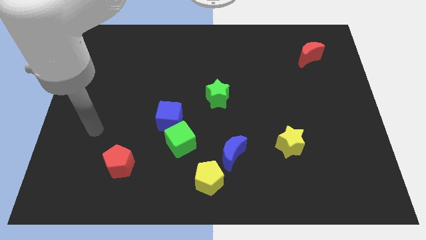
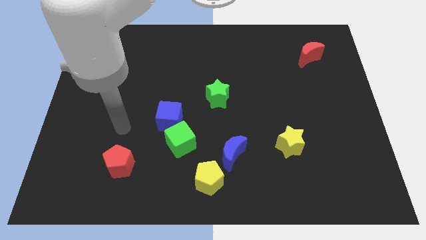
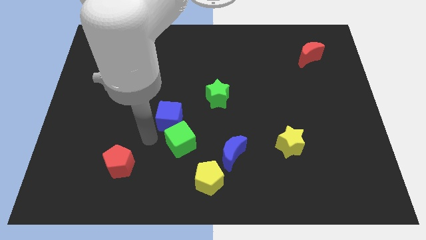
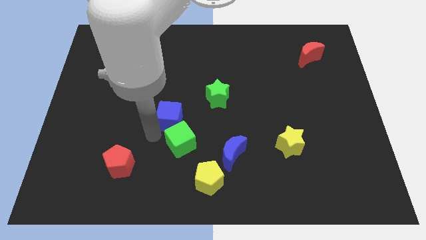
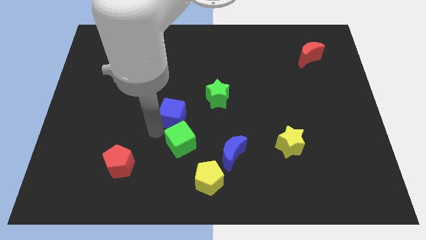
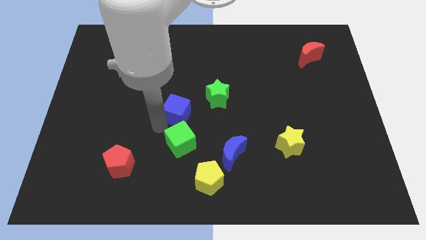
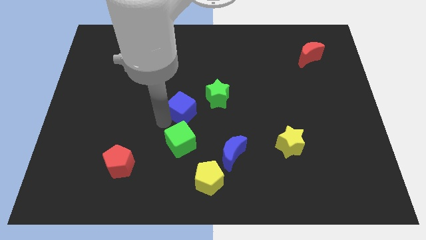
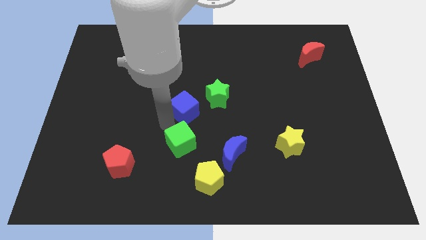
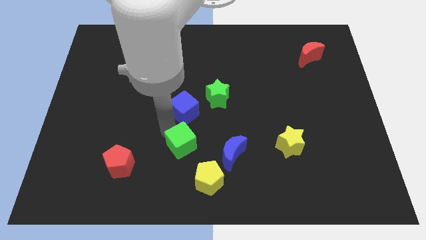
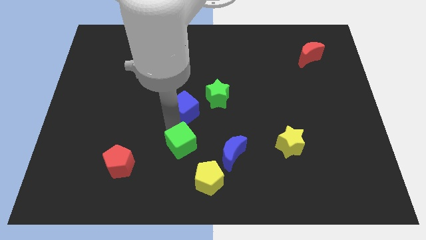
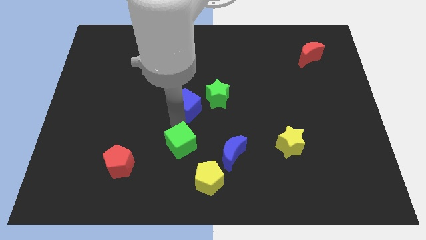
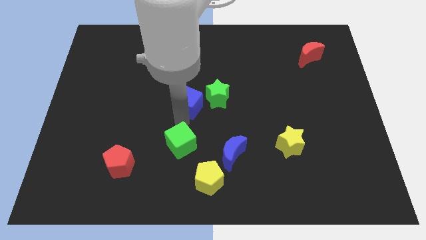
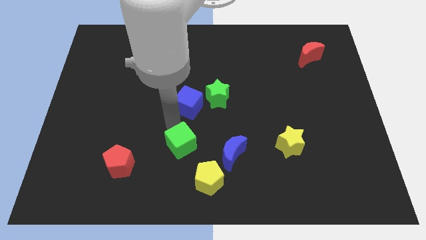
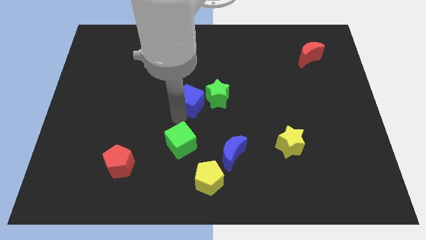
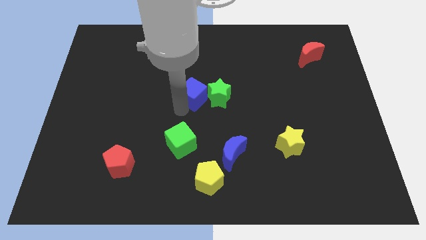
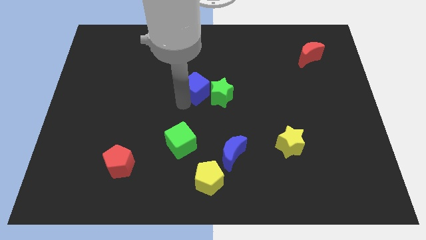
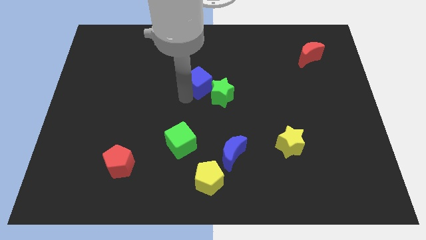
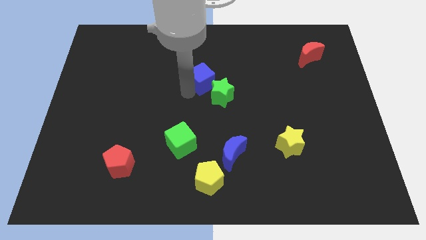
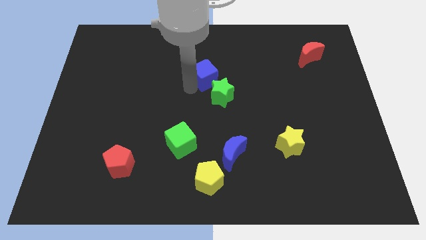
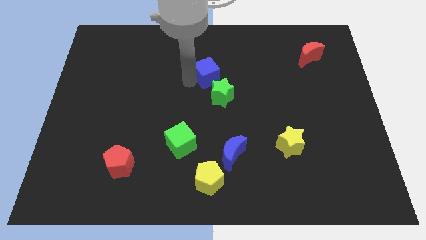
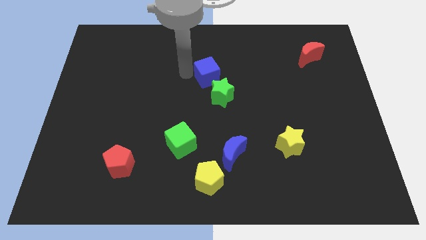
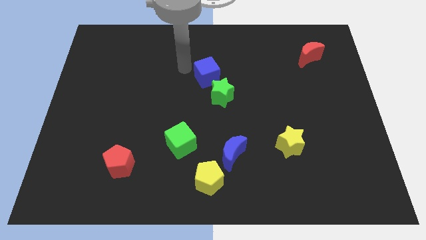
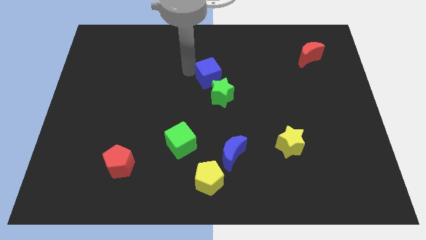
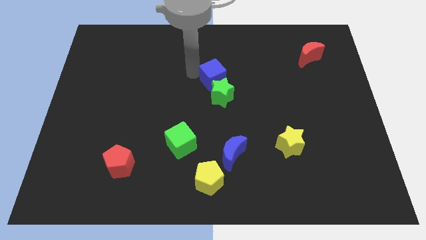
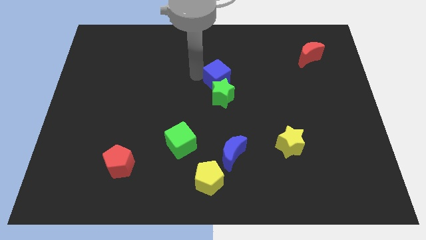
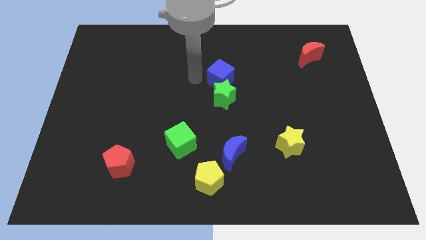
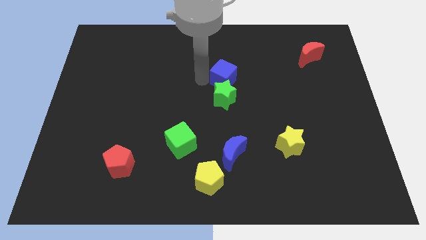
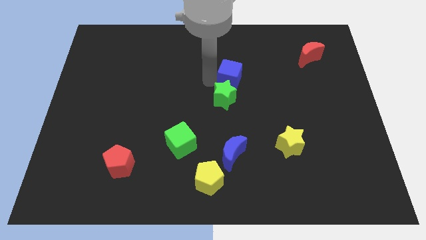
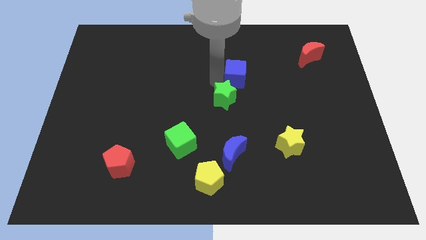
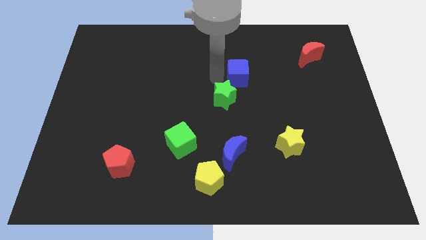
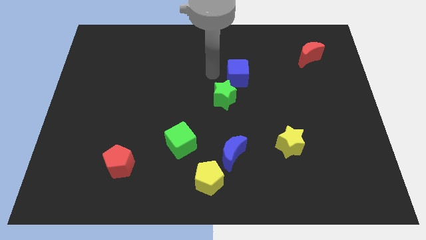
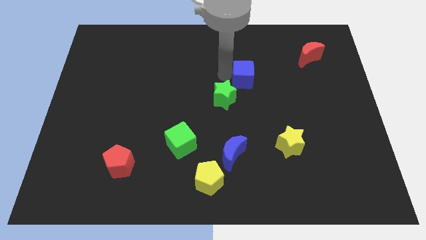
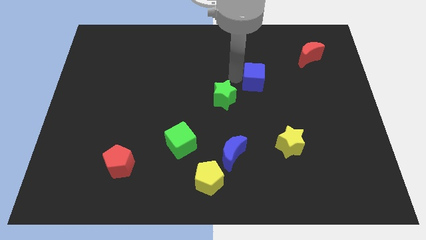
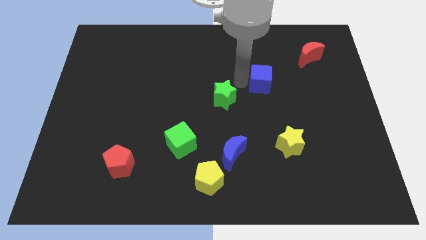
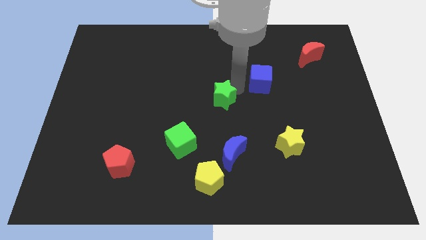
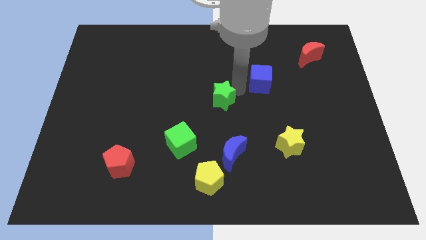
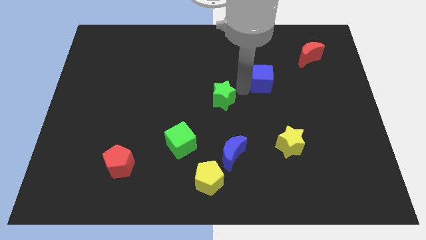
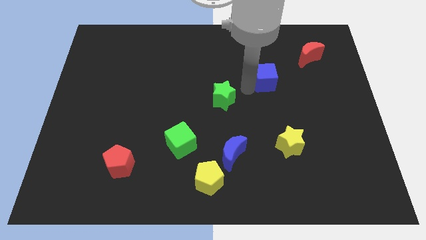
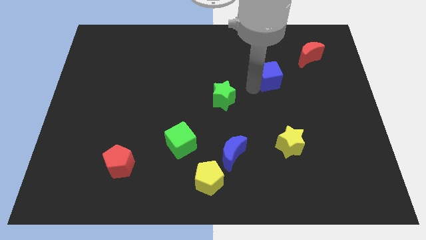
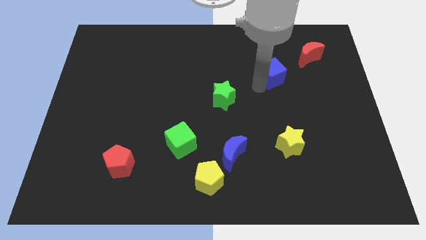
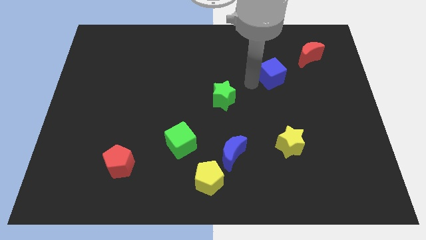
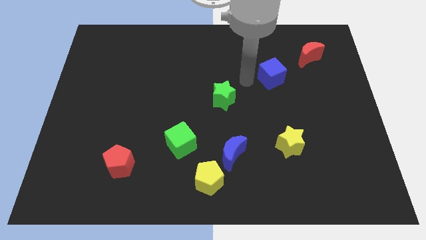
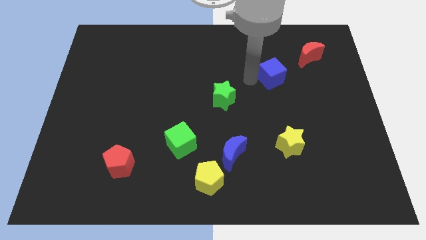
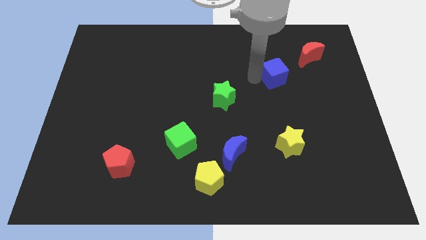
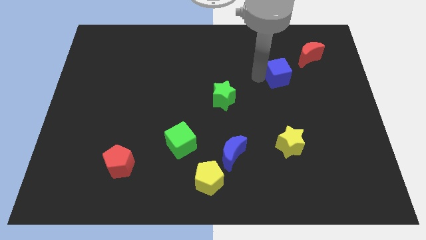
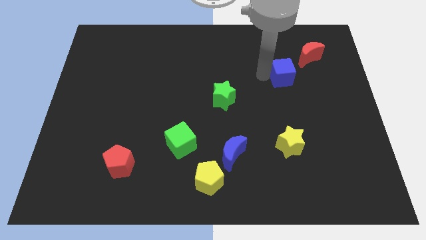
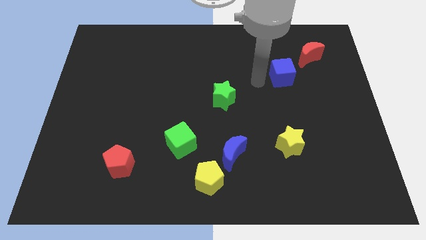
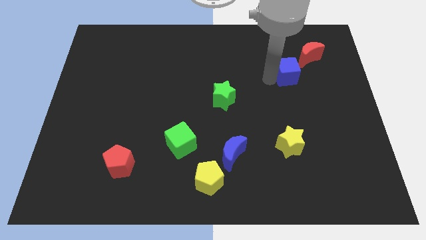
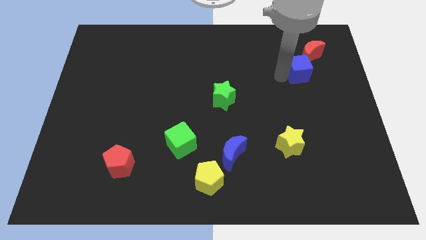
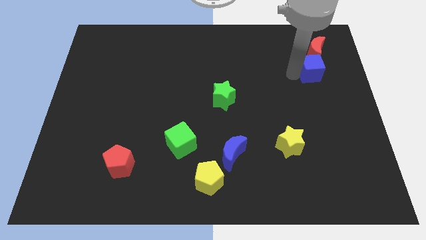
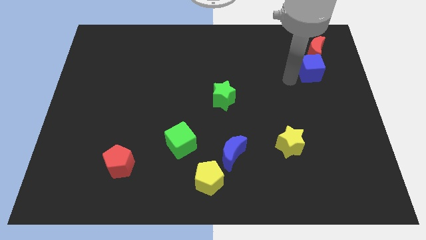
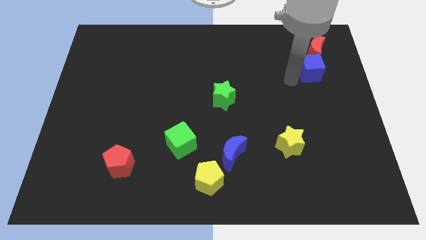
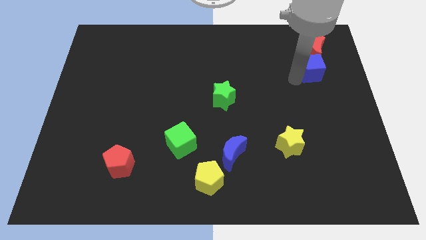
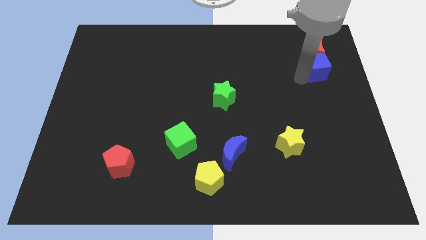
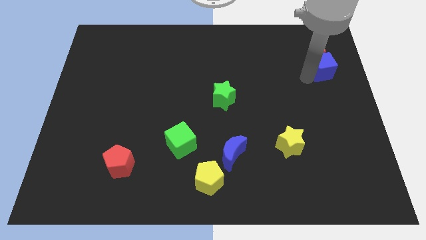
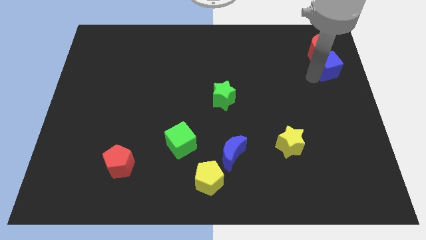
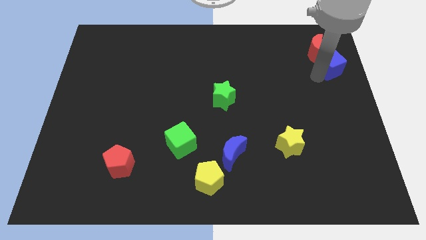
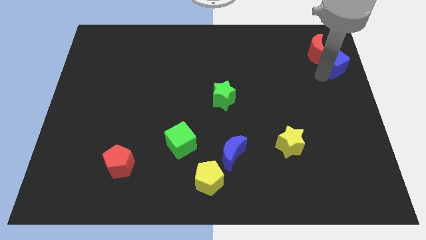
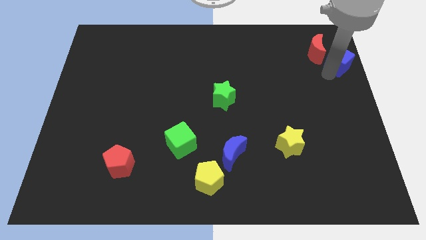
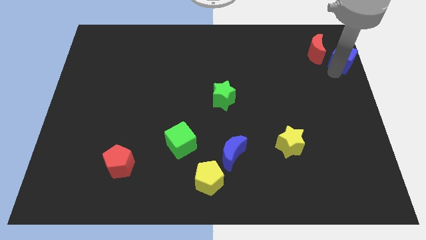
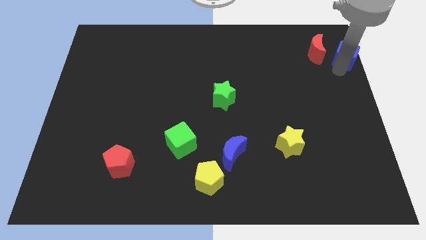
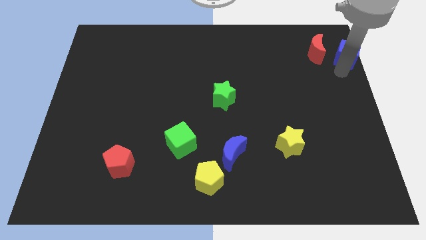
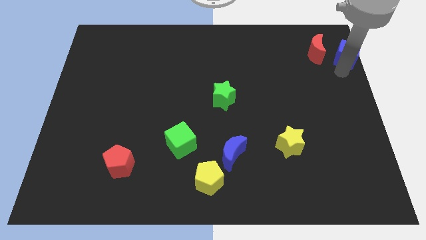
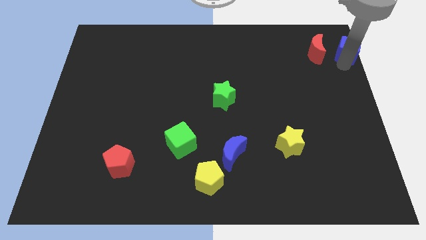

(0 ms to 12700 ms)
push the blue cube to the upper right corner
